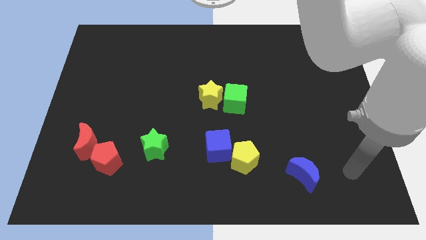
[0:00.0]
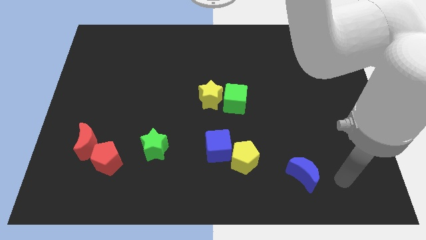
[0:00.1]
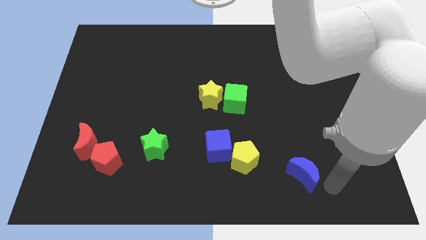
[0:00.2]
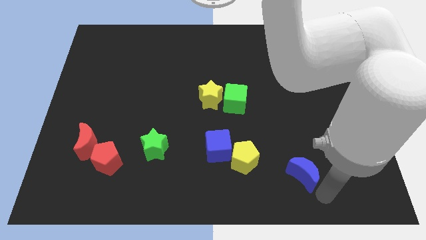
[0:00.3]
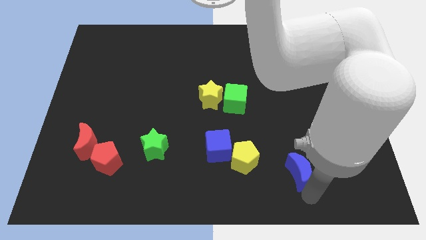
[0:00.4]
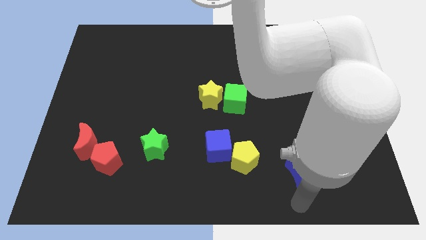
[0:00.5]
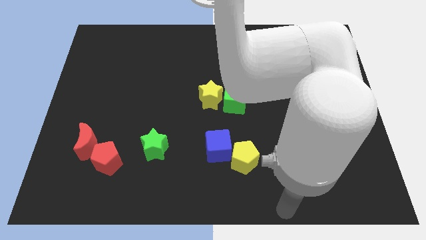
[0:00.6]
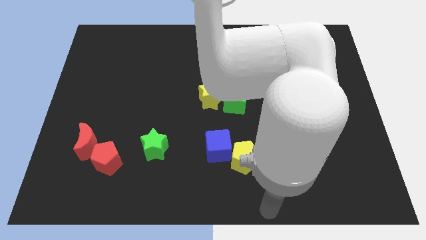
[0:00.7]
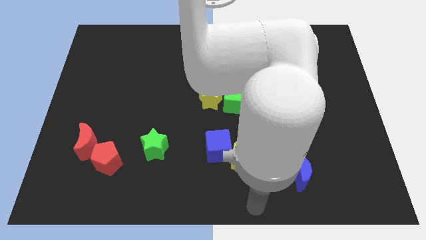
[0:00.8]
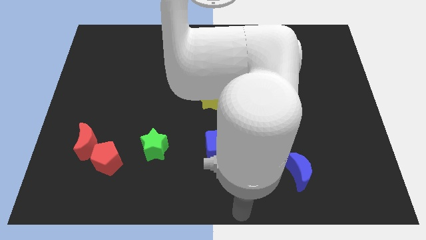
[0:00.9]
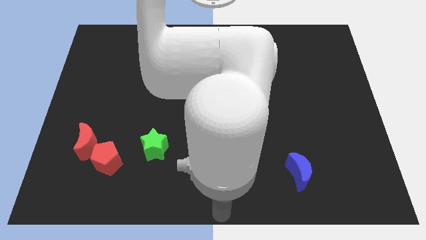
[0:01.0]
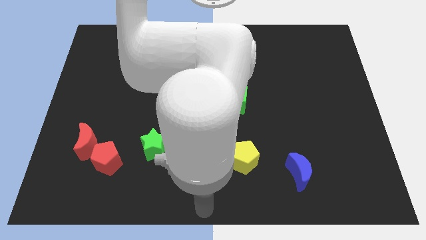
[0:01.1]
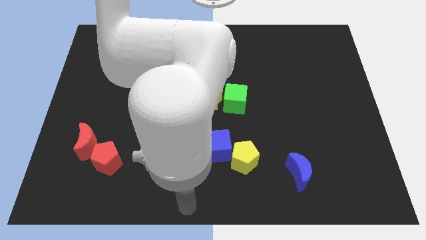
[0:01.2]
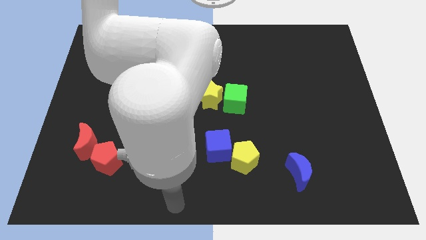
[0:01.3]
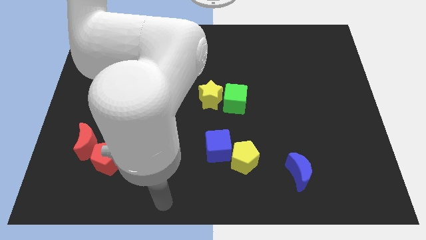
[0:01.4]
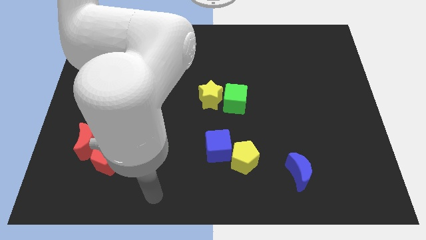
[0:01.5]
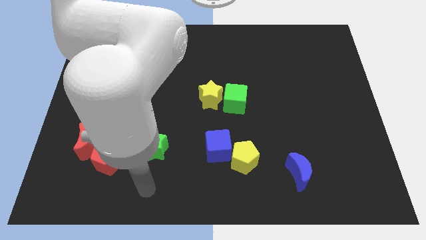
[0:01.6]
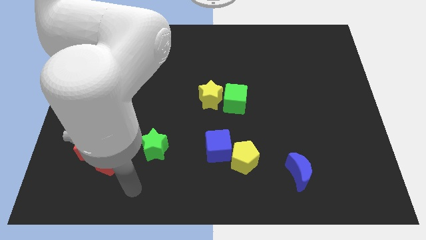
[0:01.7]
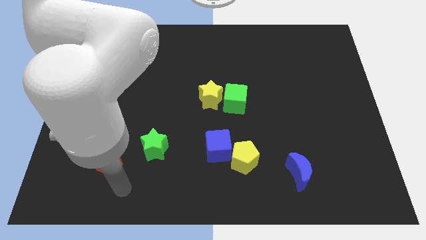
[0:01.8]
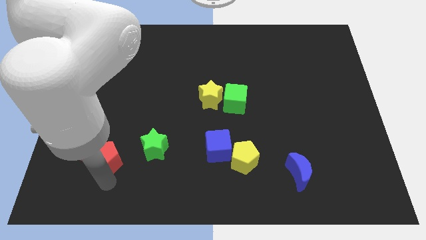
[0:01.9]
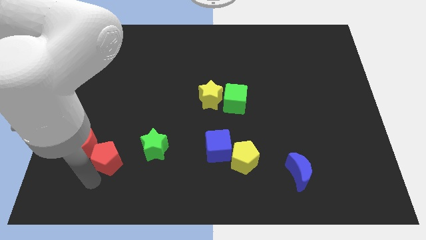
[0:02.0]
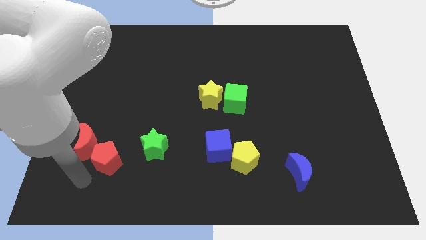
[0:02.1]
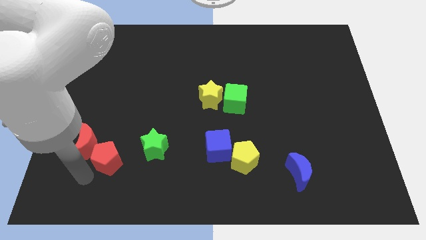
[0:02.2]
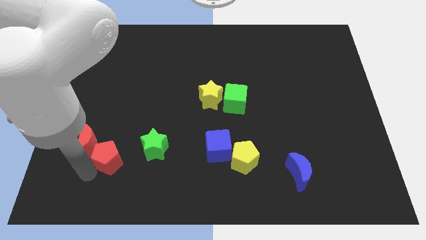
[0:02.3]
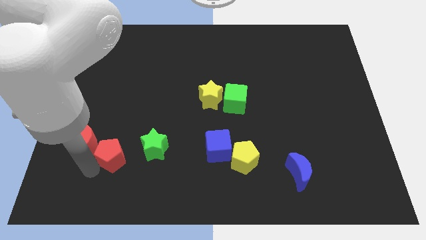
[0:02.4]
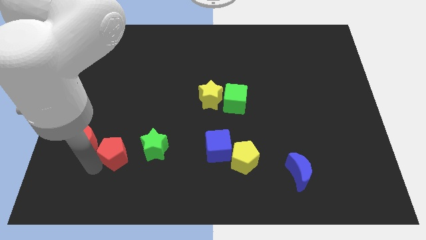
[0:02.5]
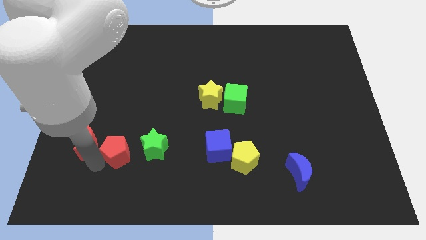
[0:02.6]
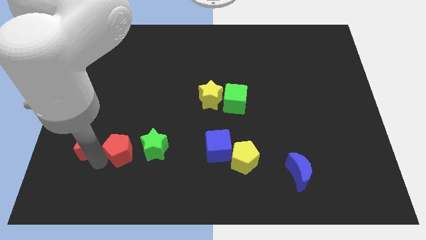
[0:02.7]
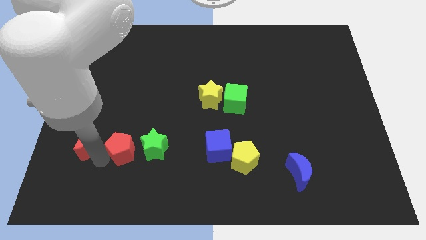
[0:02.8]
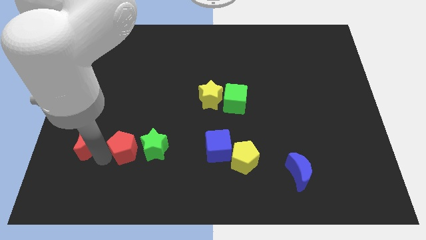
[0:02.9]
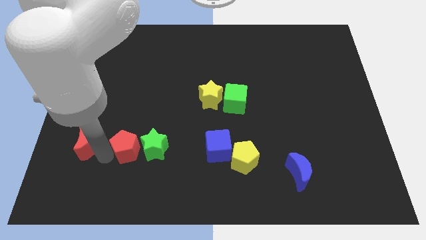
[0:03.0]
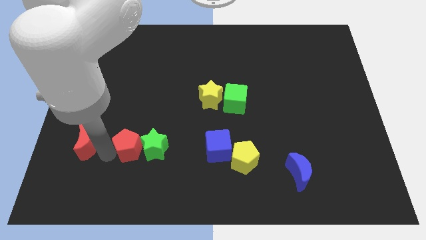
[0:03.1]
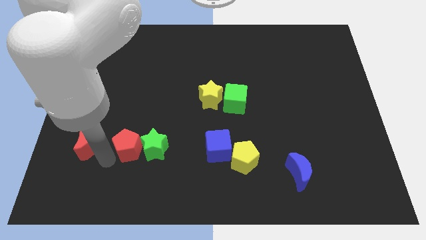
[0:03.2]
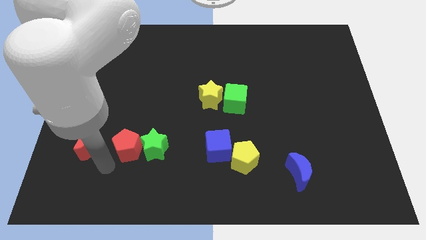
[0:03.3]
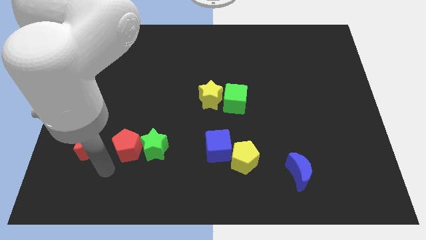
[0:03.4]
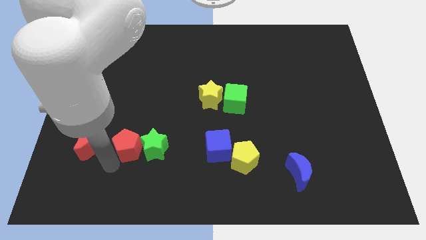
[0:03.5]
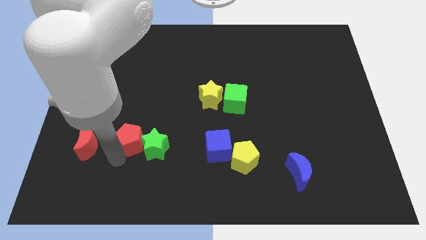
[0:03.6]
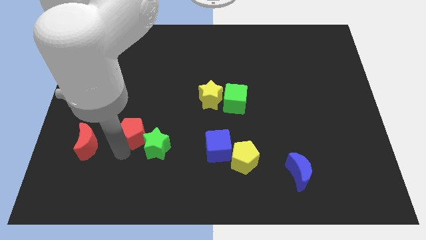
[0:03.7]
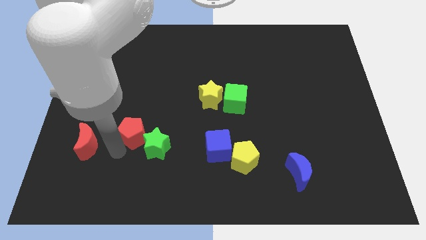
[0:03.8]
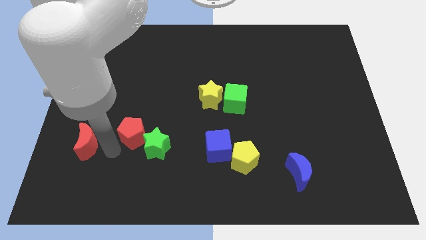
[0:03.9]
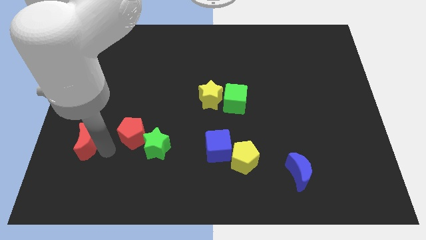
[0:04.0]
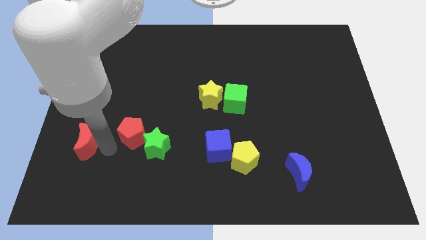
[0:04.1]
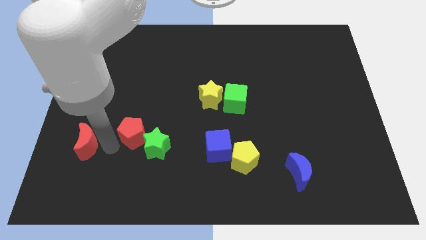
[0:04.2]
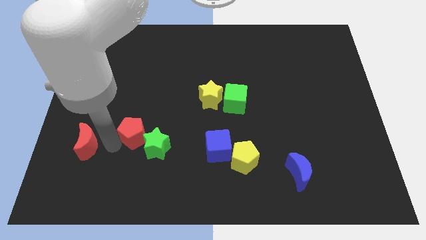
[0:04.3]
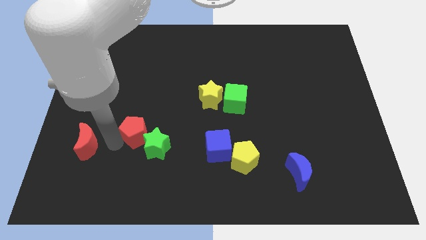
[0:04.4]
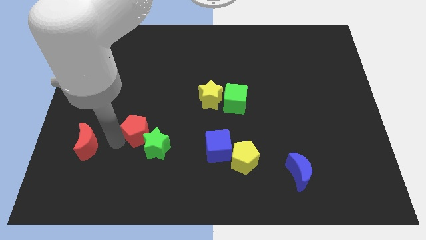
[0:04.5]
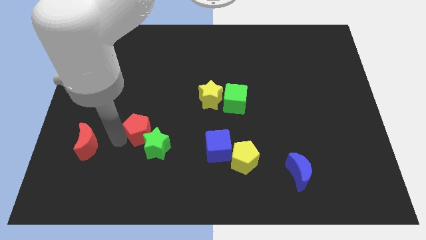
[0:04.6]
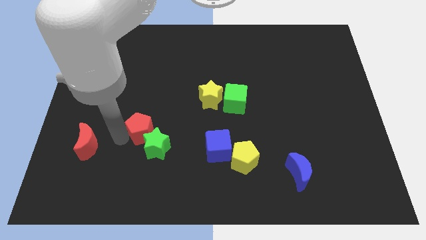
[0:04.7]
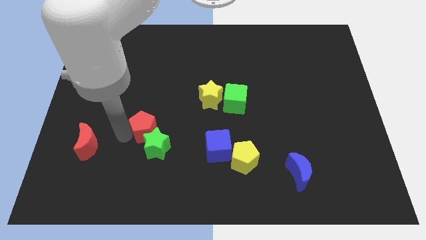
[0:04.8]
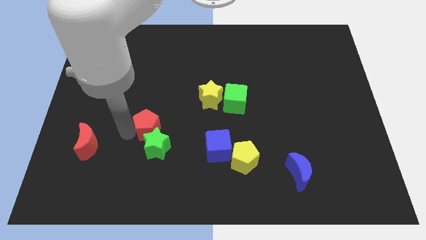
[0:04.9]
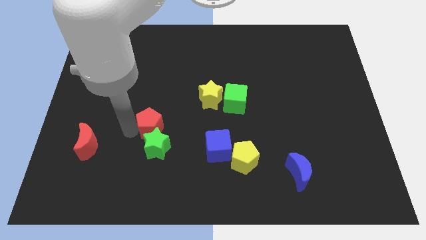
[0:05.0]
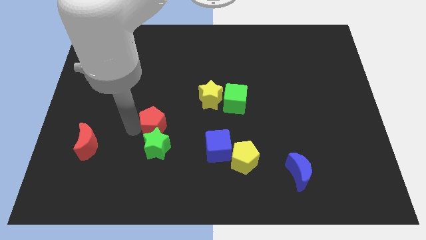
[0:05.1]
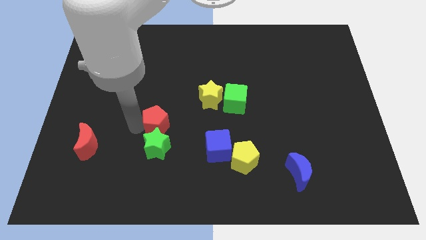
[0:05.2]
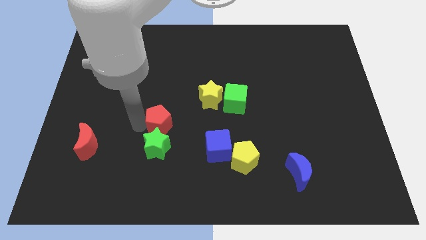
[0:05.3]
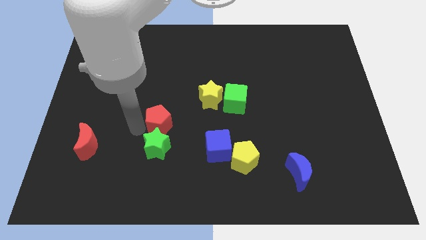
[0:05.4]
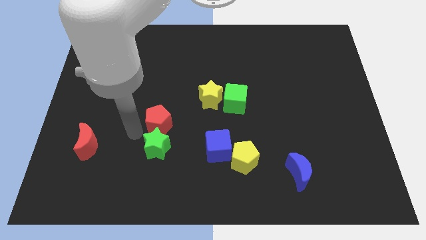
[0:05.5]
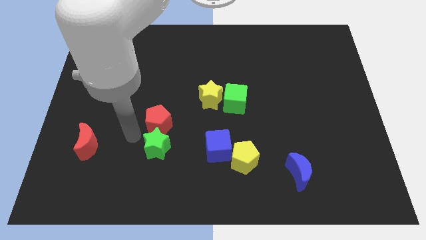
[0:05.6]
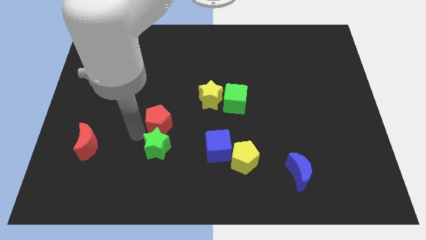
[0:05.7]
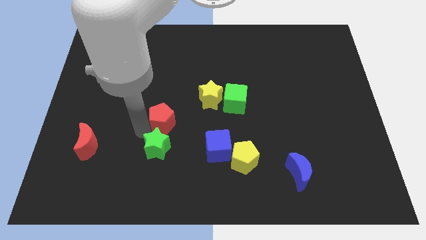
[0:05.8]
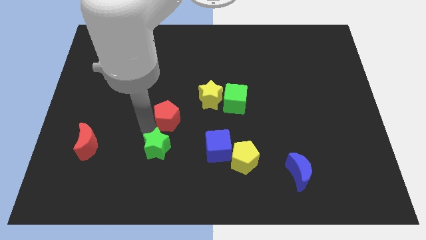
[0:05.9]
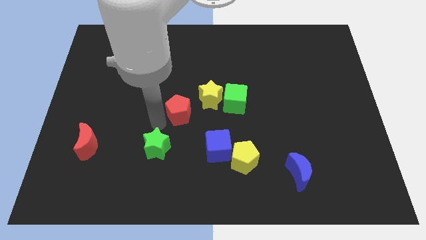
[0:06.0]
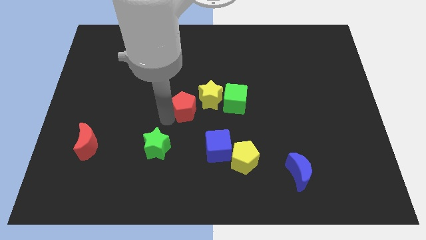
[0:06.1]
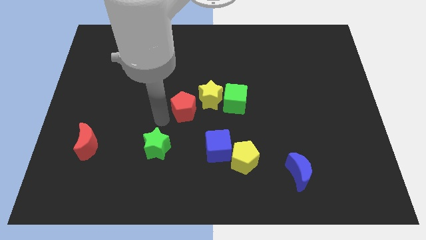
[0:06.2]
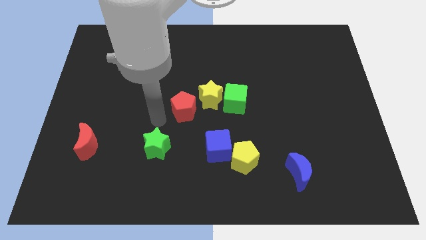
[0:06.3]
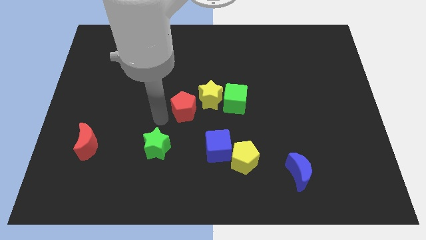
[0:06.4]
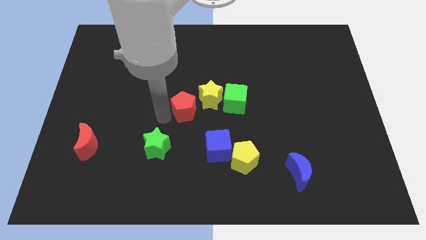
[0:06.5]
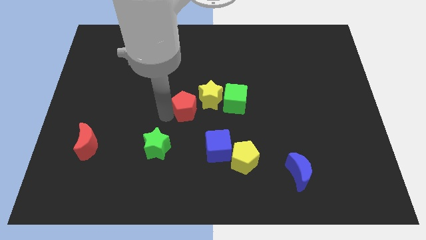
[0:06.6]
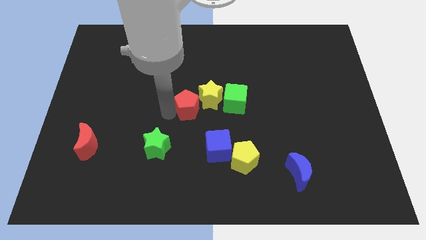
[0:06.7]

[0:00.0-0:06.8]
push the red pentagon close to the yellow star

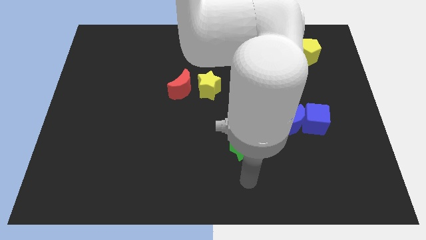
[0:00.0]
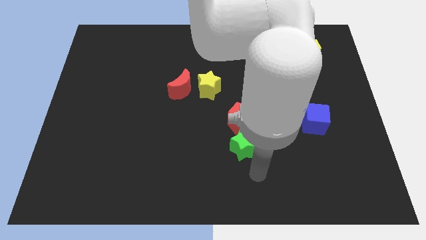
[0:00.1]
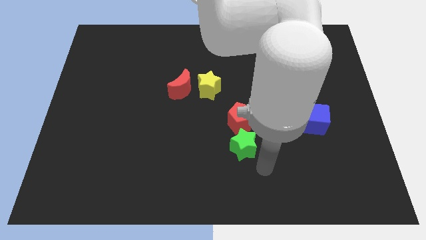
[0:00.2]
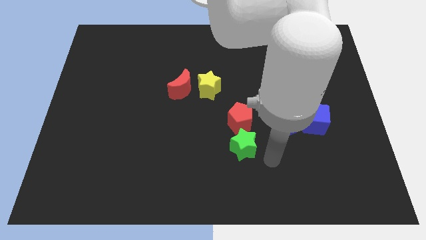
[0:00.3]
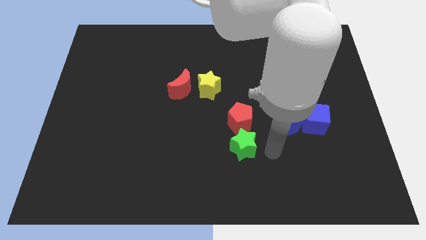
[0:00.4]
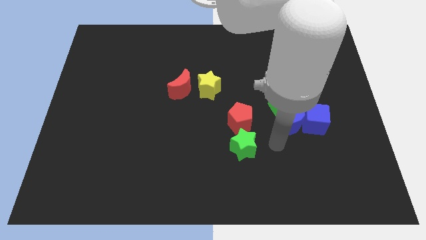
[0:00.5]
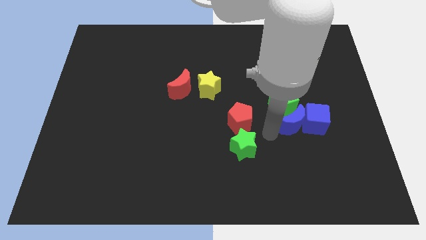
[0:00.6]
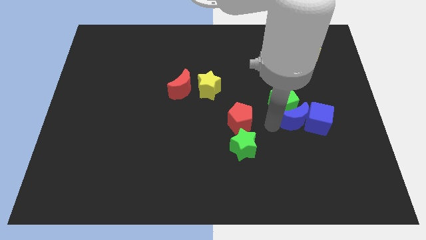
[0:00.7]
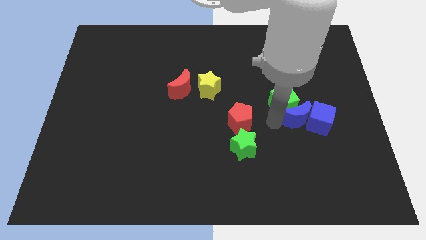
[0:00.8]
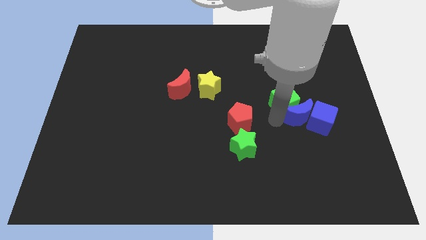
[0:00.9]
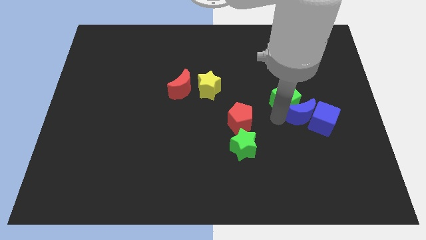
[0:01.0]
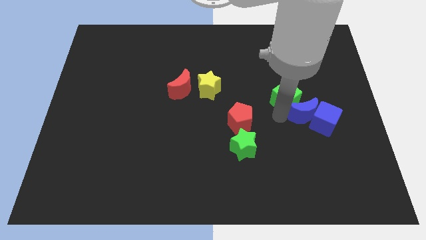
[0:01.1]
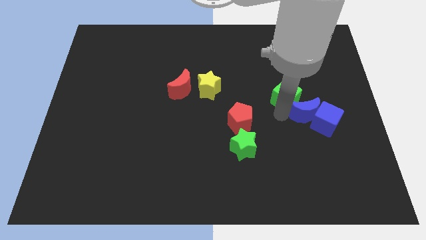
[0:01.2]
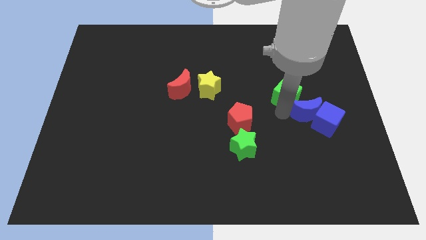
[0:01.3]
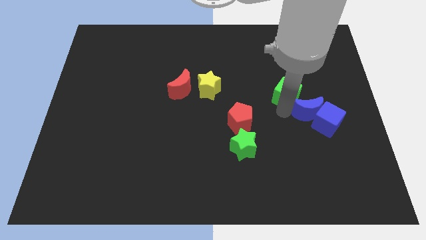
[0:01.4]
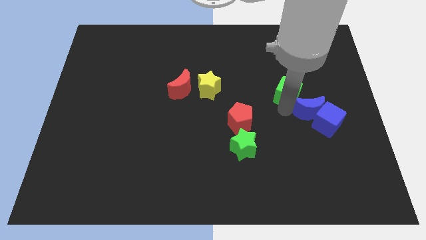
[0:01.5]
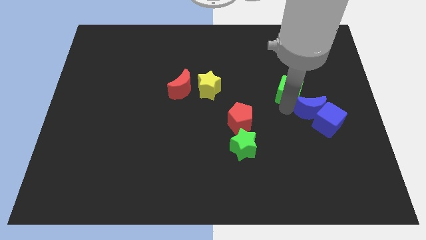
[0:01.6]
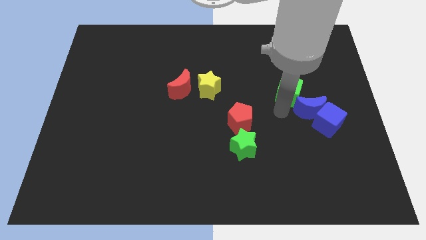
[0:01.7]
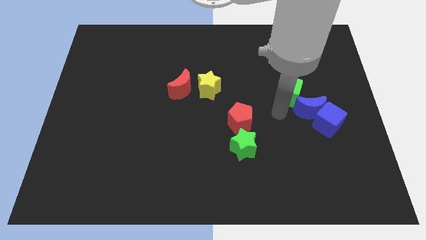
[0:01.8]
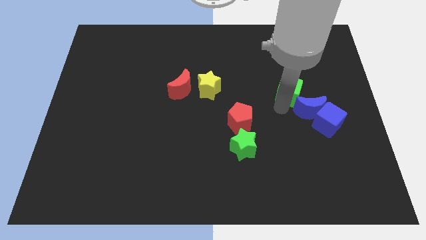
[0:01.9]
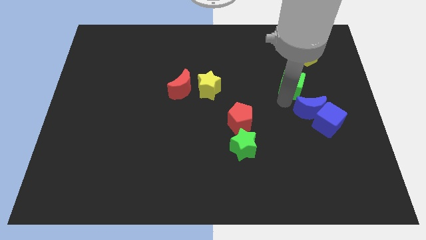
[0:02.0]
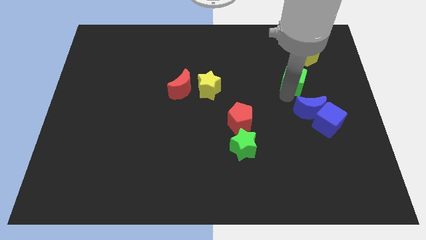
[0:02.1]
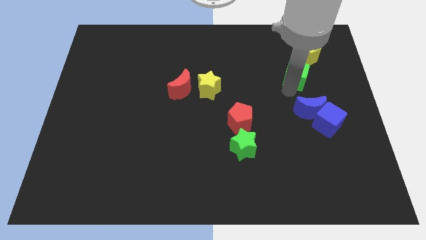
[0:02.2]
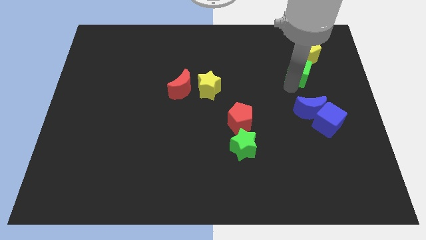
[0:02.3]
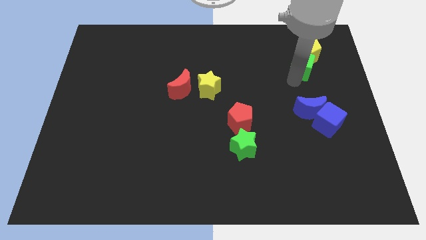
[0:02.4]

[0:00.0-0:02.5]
put the green cube close to the yellow pentagon
